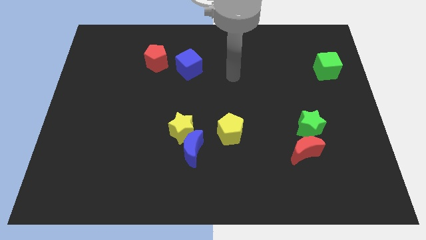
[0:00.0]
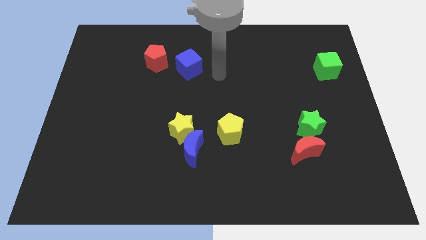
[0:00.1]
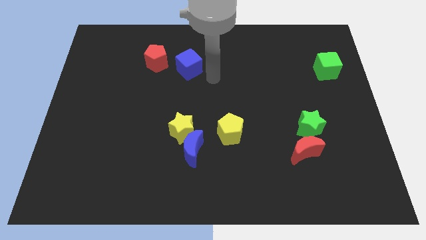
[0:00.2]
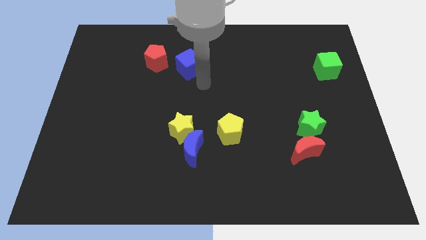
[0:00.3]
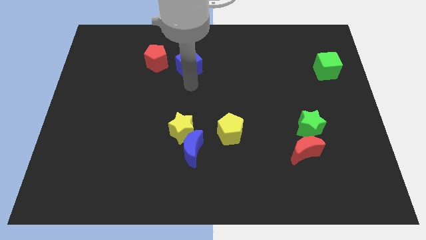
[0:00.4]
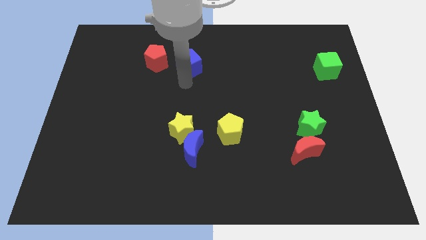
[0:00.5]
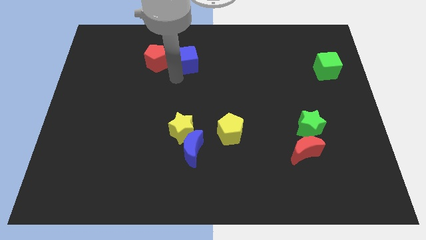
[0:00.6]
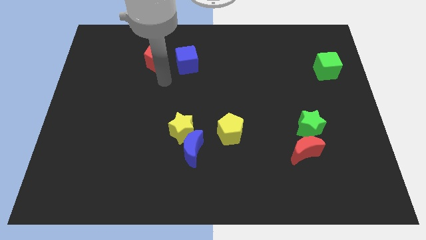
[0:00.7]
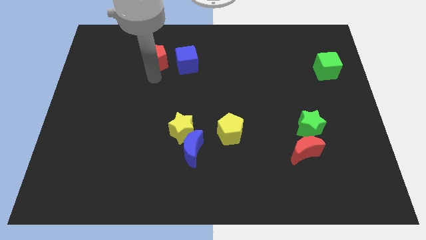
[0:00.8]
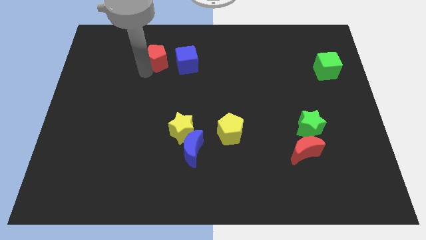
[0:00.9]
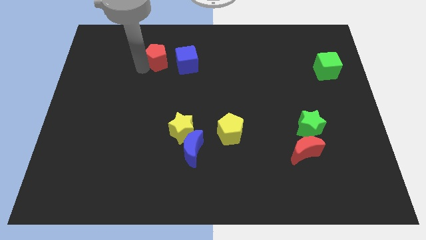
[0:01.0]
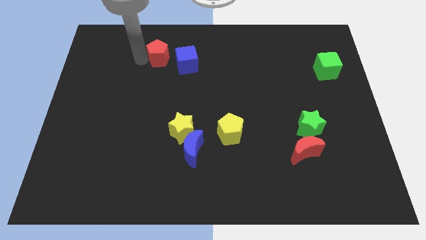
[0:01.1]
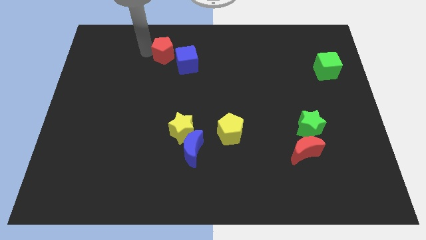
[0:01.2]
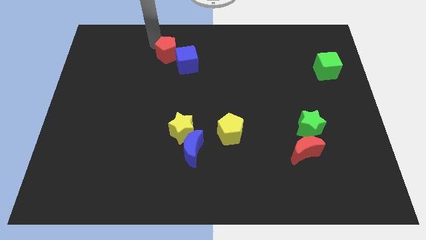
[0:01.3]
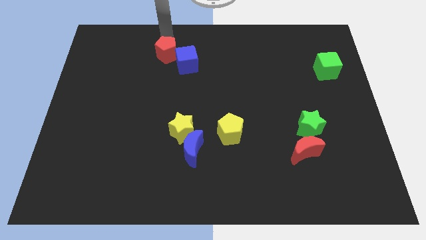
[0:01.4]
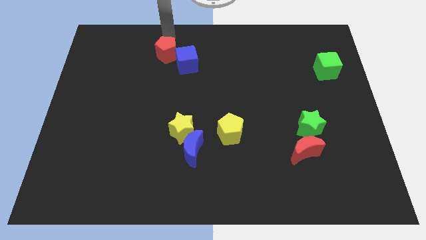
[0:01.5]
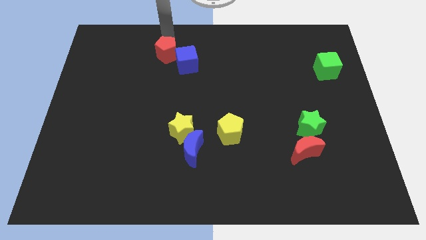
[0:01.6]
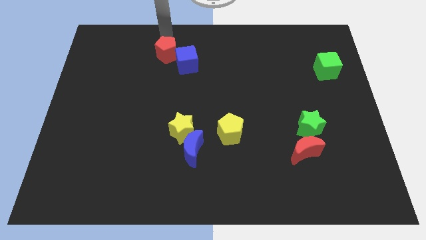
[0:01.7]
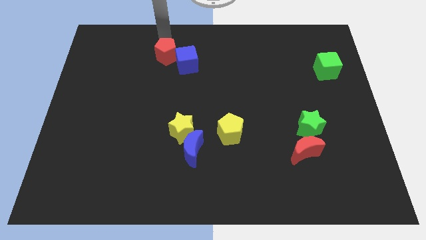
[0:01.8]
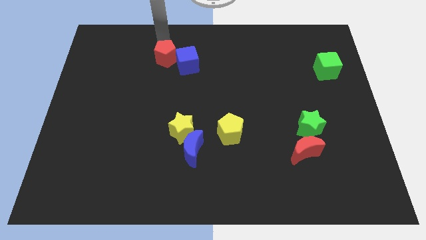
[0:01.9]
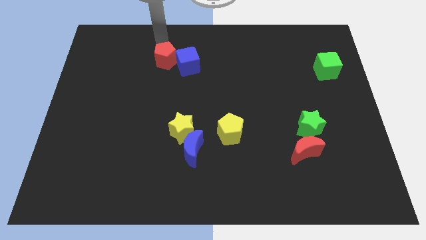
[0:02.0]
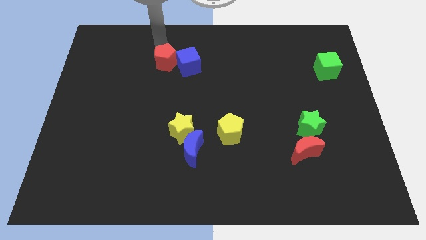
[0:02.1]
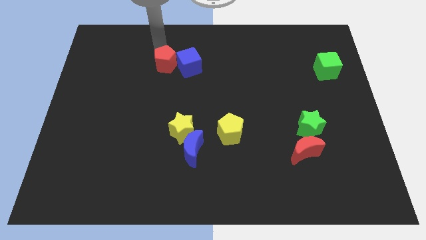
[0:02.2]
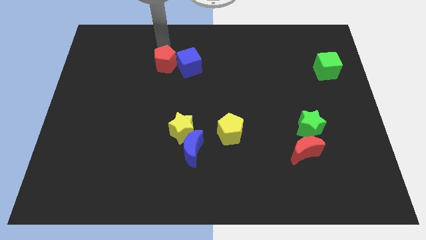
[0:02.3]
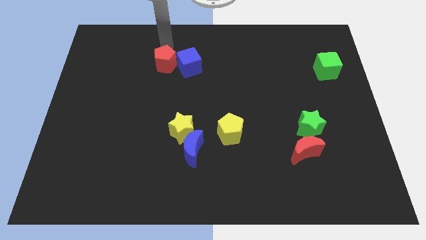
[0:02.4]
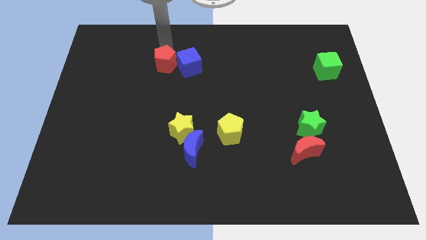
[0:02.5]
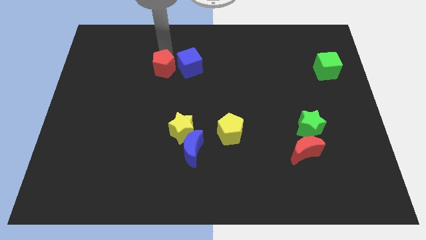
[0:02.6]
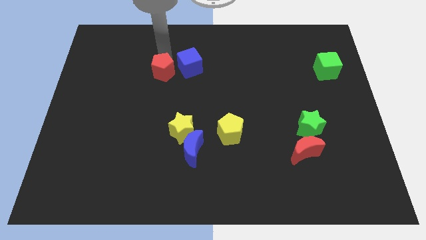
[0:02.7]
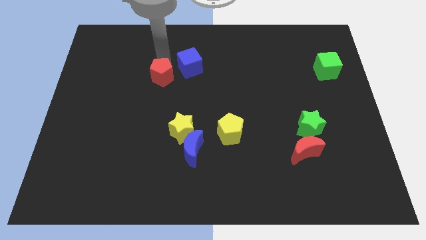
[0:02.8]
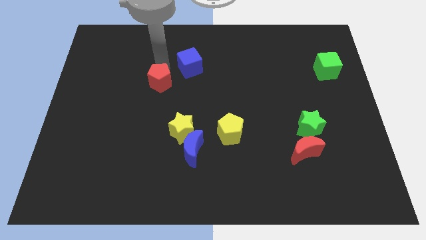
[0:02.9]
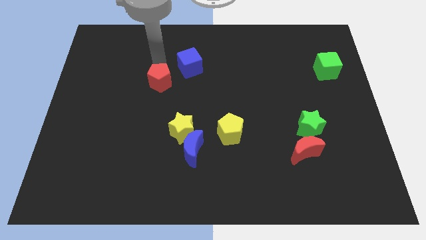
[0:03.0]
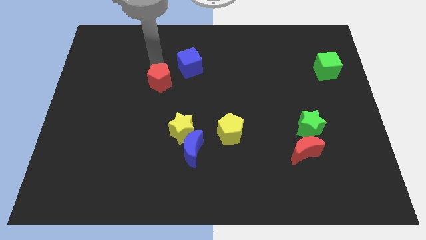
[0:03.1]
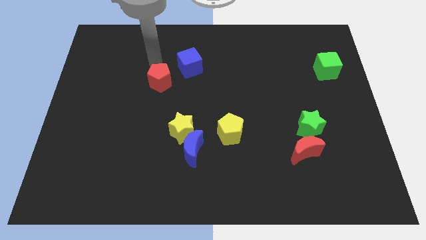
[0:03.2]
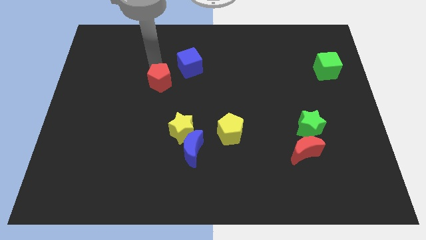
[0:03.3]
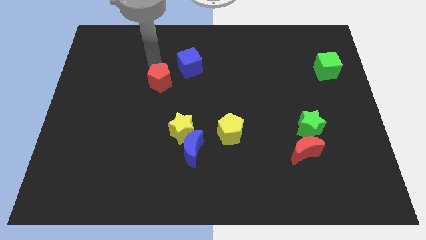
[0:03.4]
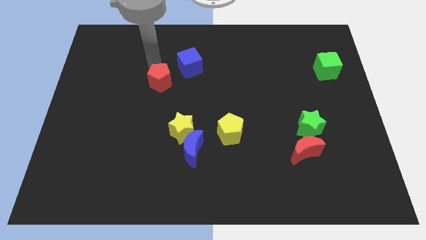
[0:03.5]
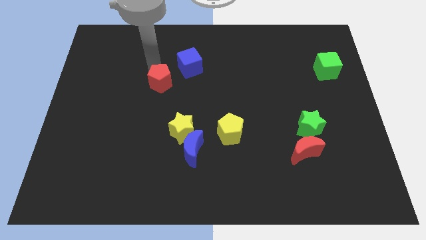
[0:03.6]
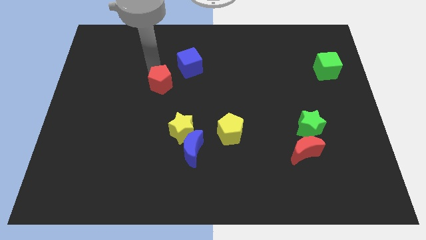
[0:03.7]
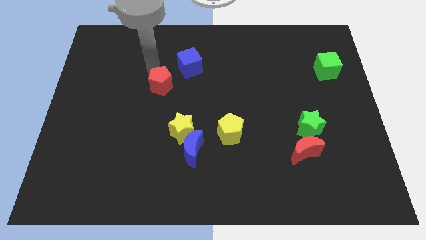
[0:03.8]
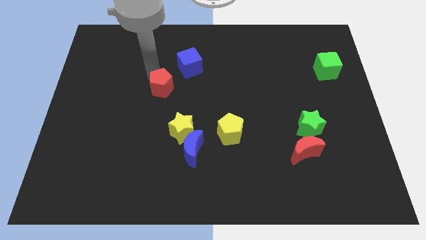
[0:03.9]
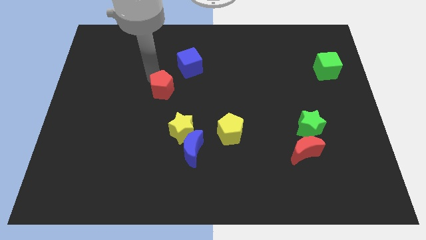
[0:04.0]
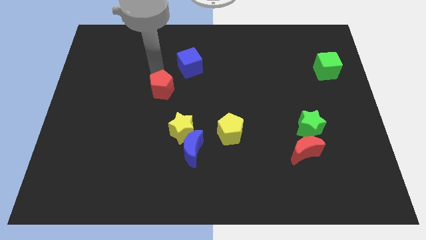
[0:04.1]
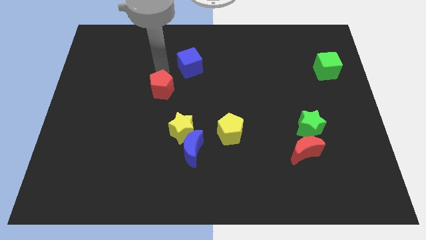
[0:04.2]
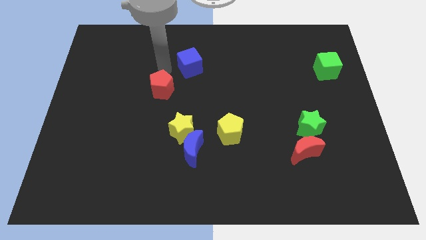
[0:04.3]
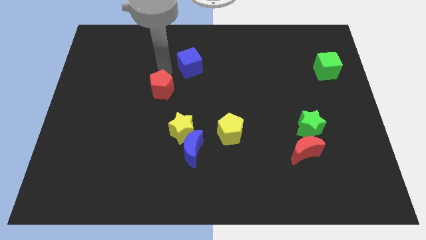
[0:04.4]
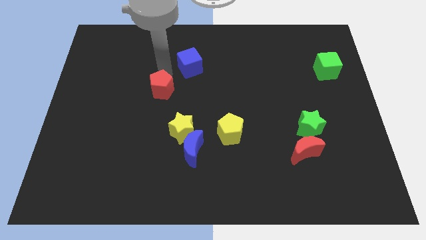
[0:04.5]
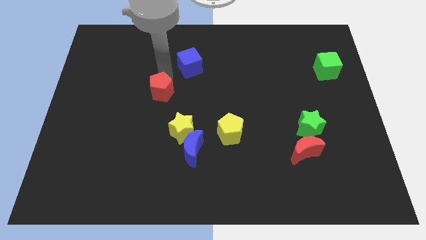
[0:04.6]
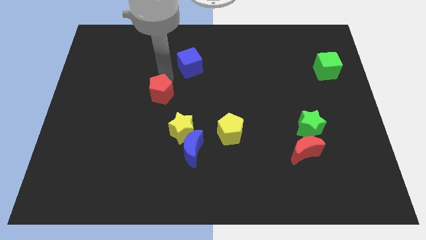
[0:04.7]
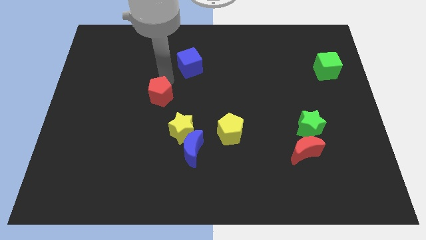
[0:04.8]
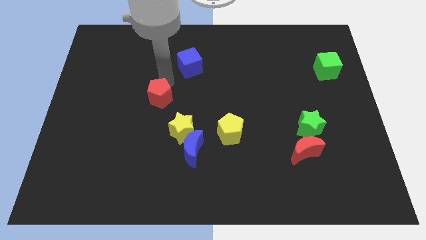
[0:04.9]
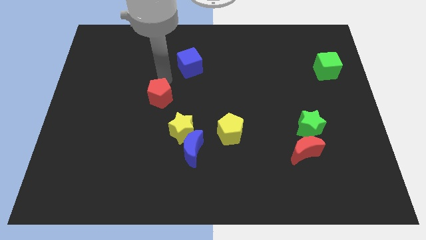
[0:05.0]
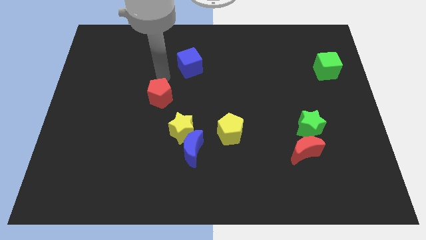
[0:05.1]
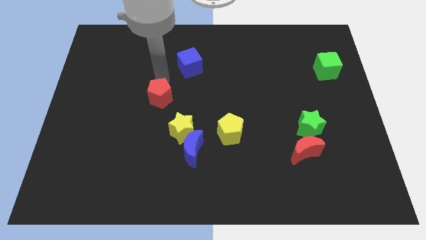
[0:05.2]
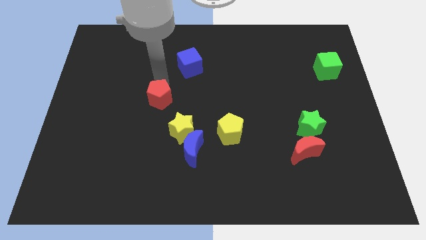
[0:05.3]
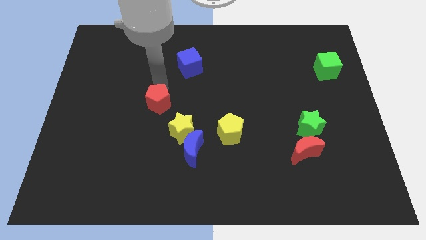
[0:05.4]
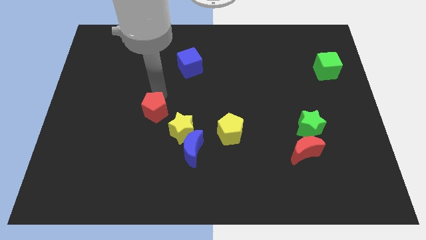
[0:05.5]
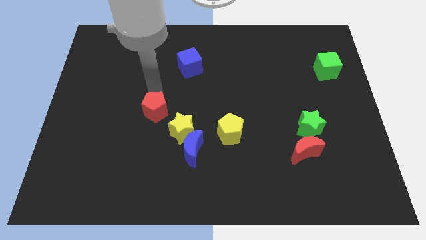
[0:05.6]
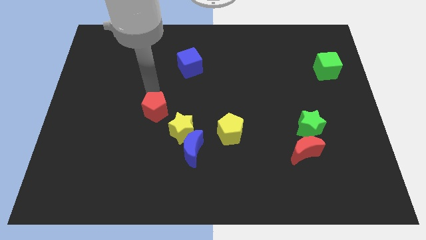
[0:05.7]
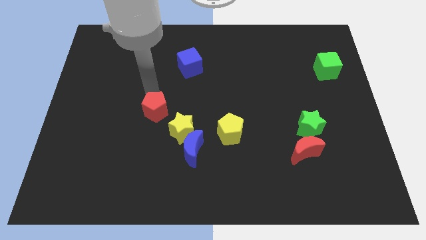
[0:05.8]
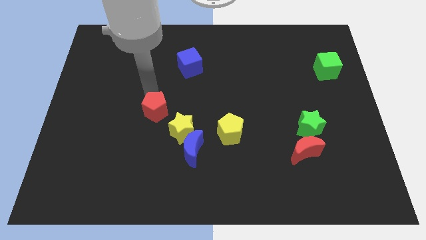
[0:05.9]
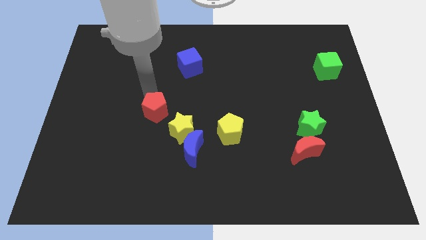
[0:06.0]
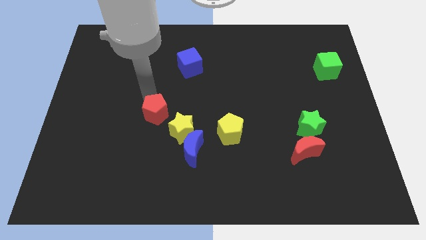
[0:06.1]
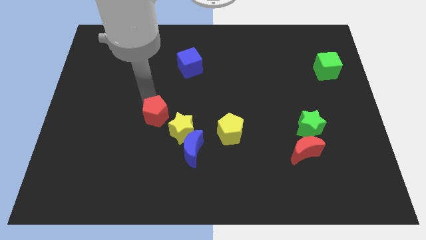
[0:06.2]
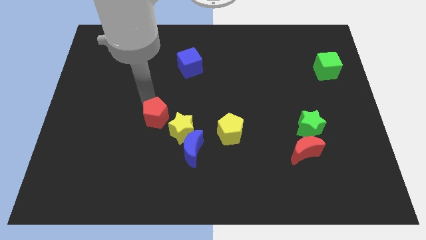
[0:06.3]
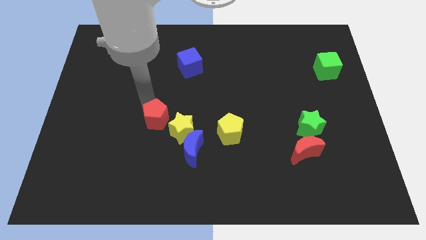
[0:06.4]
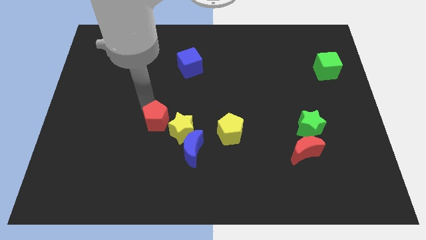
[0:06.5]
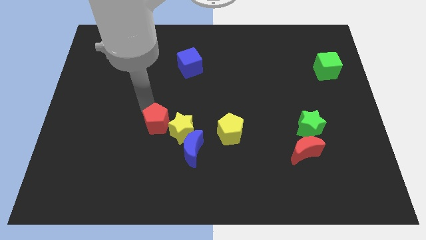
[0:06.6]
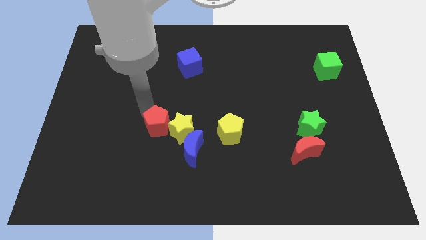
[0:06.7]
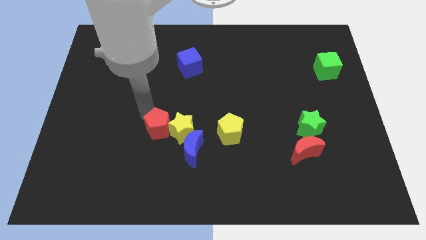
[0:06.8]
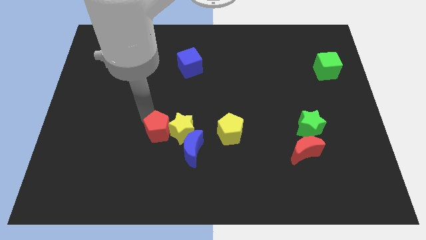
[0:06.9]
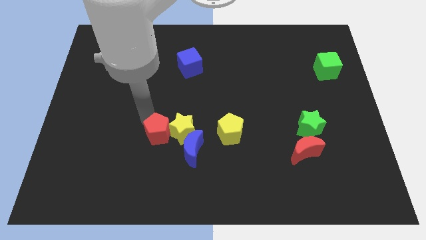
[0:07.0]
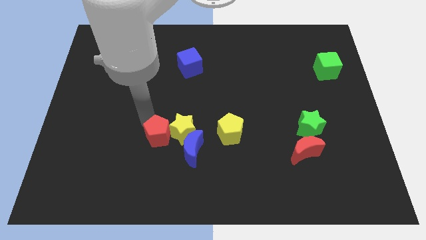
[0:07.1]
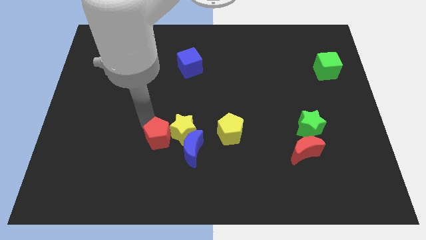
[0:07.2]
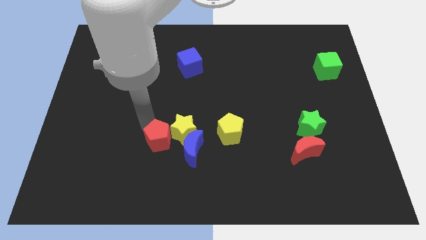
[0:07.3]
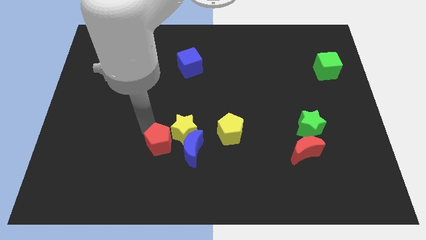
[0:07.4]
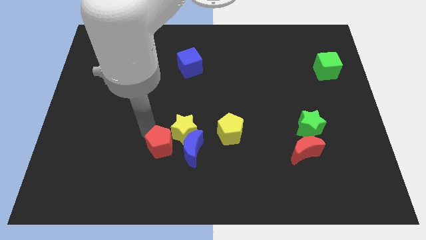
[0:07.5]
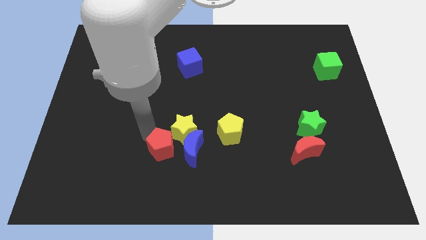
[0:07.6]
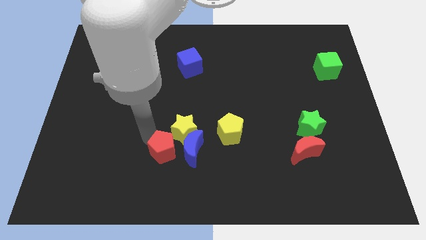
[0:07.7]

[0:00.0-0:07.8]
put the red pentagon next to the blue moon
